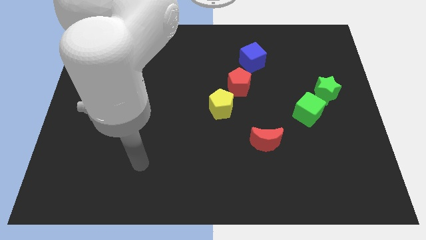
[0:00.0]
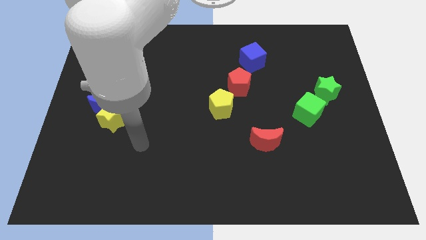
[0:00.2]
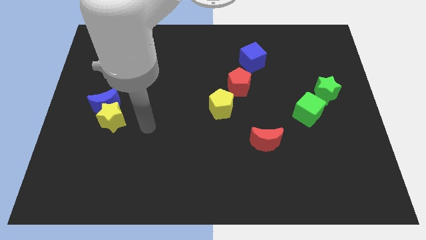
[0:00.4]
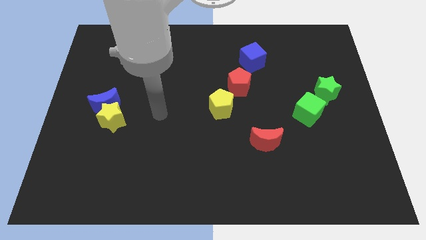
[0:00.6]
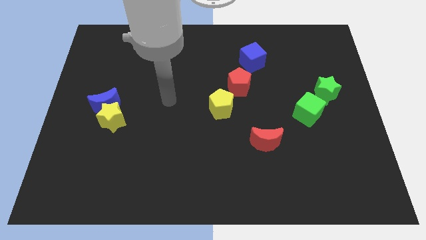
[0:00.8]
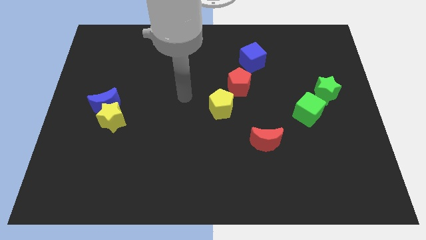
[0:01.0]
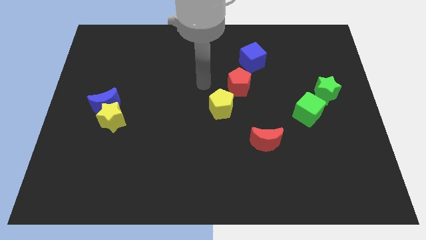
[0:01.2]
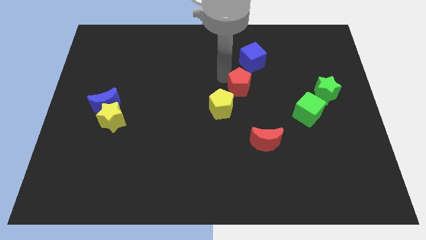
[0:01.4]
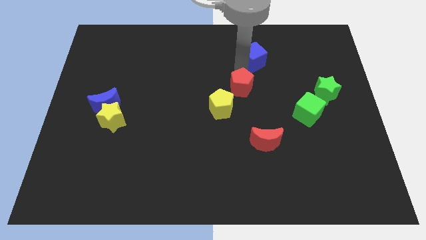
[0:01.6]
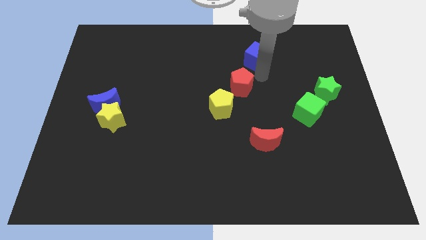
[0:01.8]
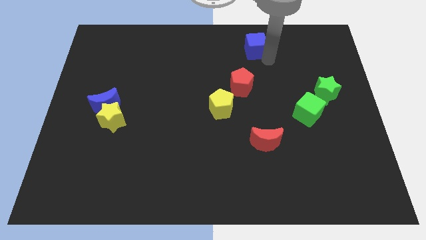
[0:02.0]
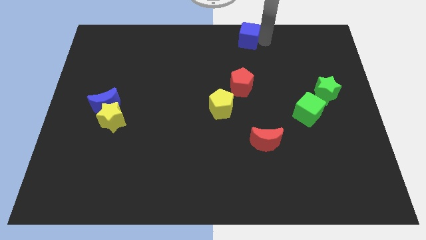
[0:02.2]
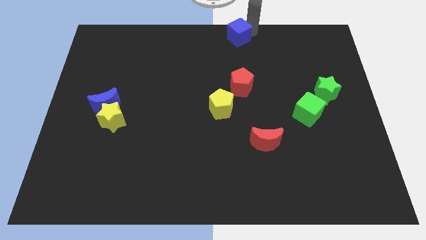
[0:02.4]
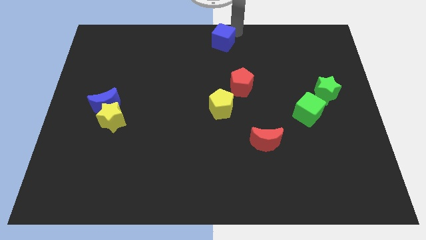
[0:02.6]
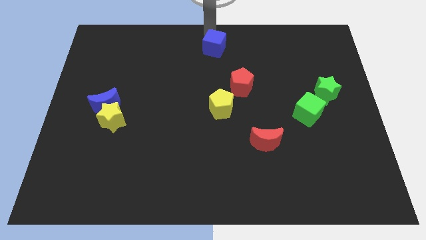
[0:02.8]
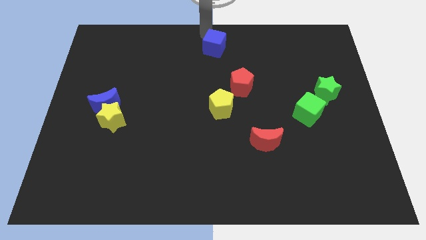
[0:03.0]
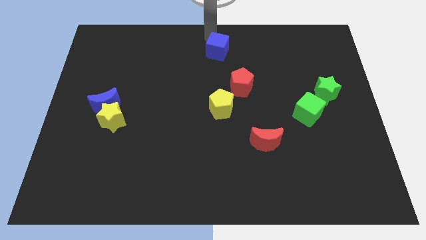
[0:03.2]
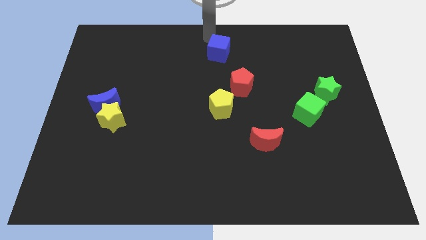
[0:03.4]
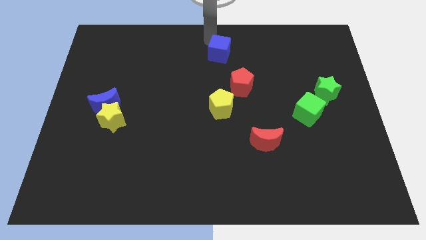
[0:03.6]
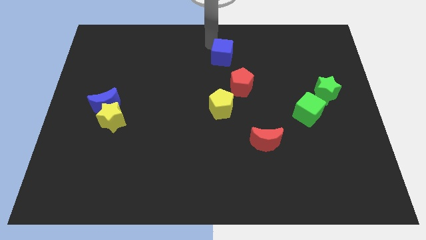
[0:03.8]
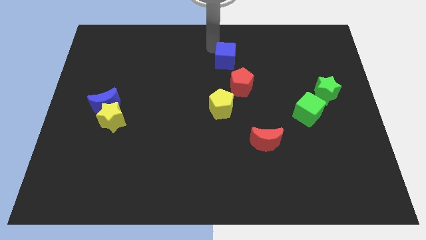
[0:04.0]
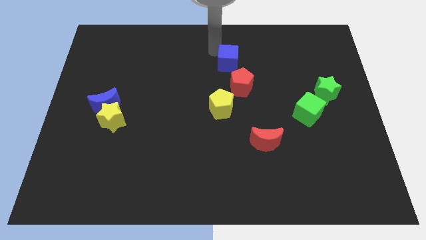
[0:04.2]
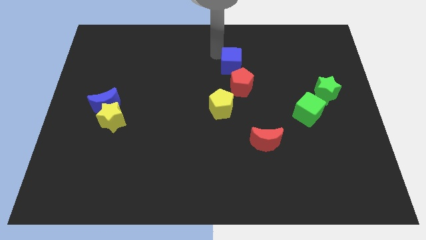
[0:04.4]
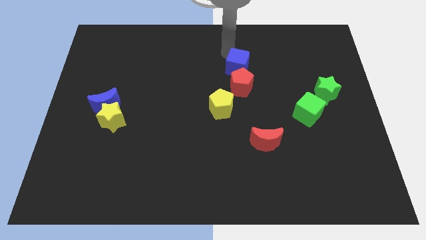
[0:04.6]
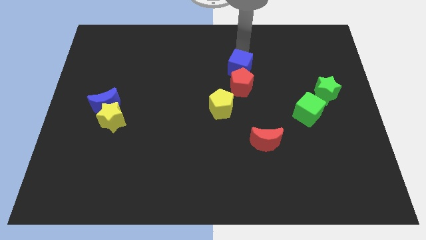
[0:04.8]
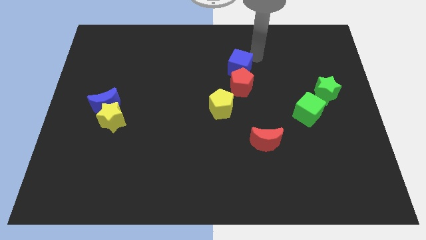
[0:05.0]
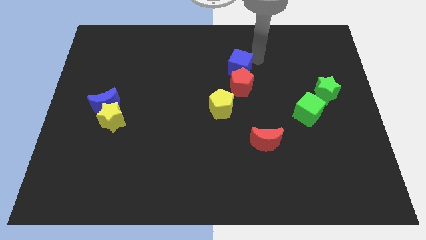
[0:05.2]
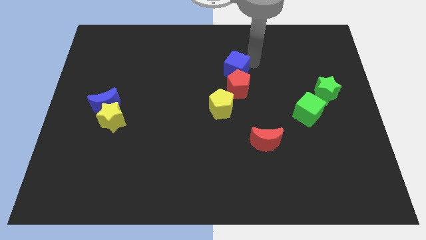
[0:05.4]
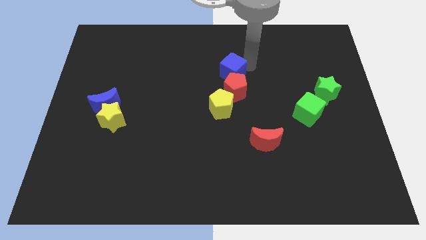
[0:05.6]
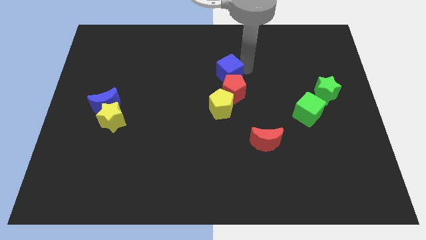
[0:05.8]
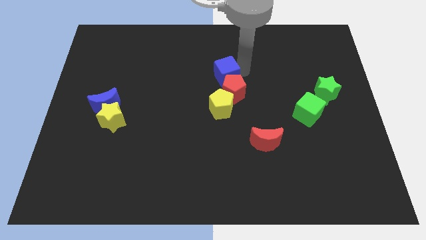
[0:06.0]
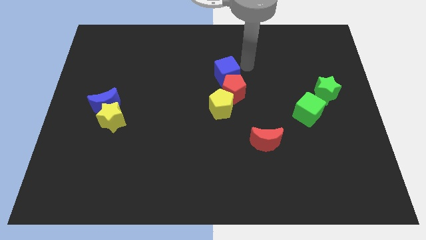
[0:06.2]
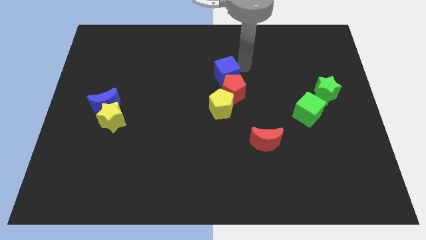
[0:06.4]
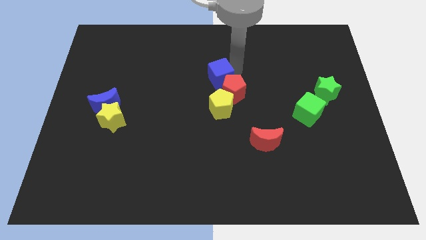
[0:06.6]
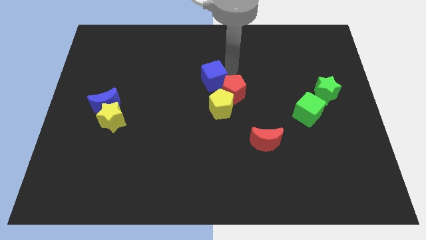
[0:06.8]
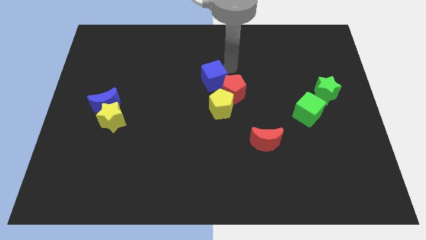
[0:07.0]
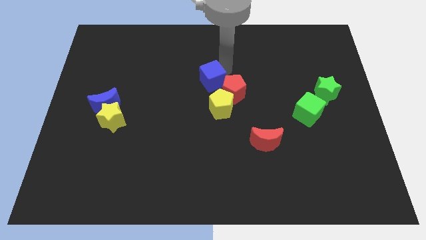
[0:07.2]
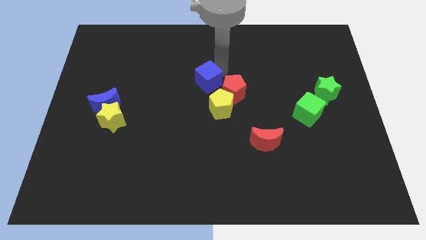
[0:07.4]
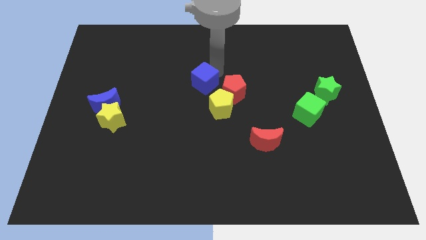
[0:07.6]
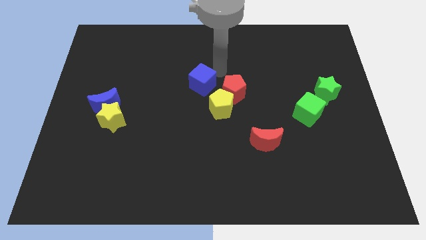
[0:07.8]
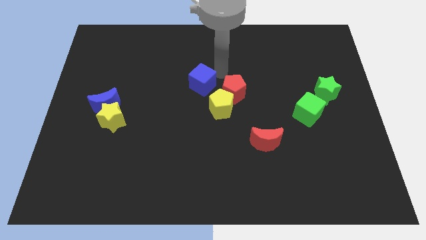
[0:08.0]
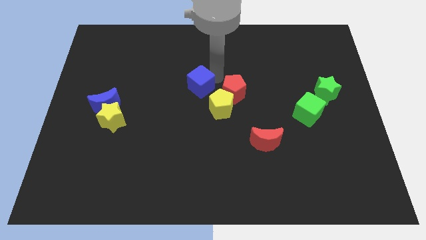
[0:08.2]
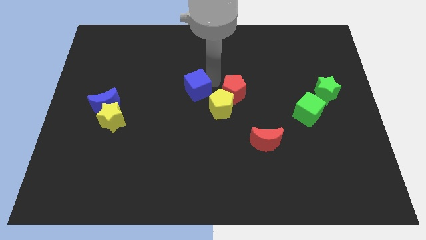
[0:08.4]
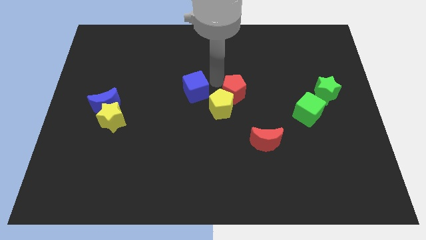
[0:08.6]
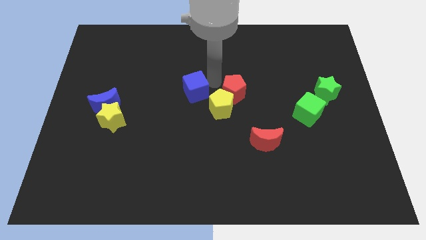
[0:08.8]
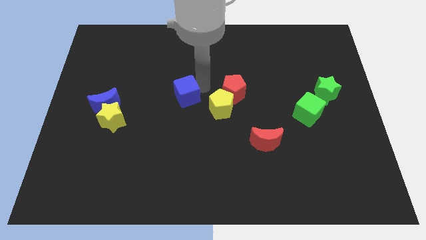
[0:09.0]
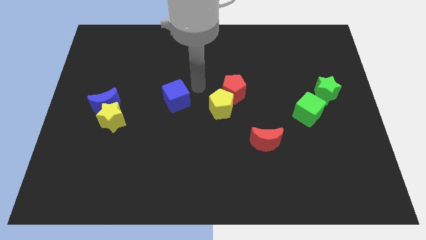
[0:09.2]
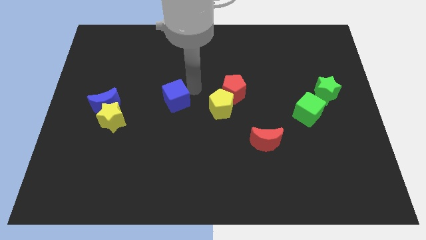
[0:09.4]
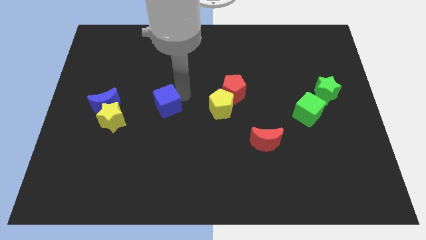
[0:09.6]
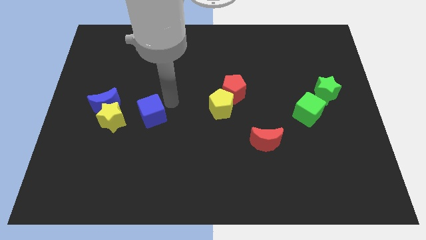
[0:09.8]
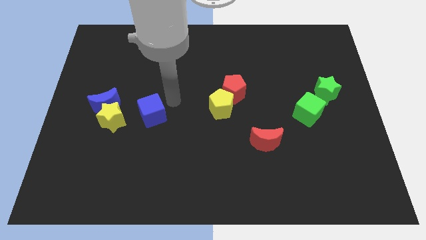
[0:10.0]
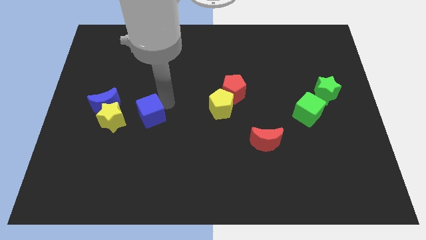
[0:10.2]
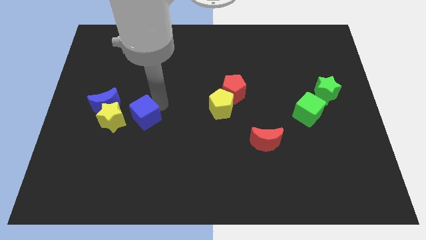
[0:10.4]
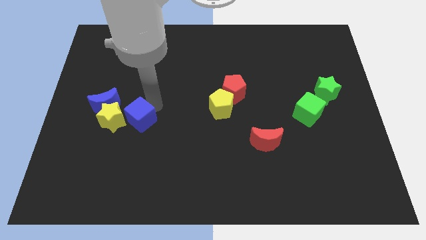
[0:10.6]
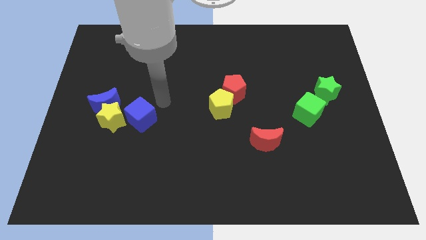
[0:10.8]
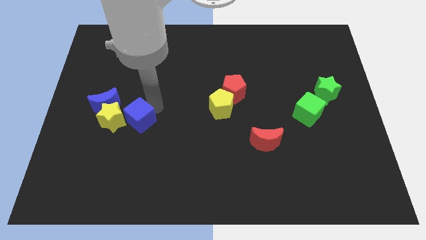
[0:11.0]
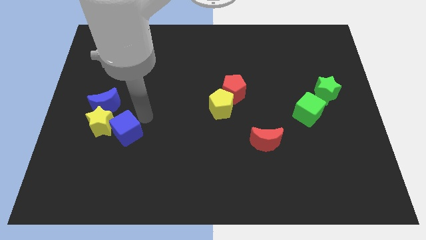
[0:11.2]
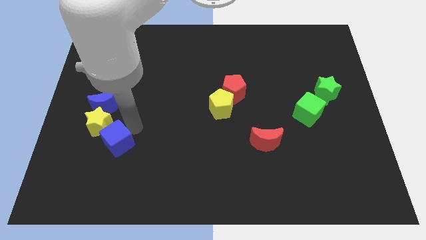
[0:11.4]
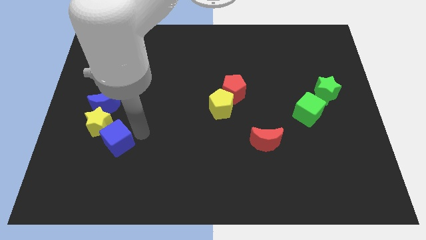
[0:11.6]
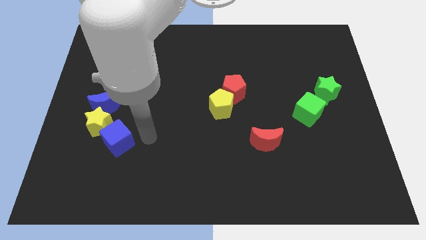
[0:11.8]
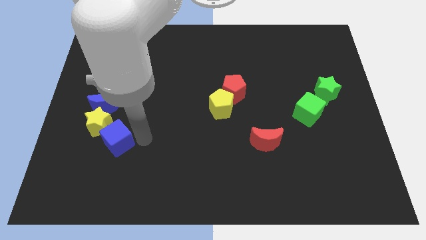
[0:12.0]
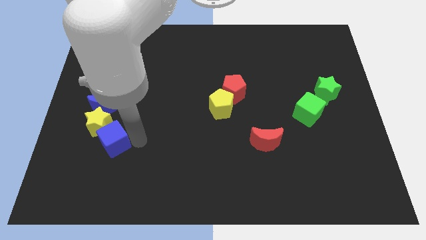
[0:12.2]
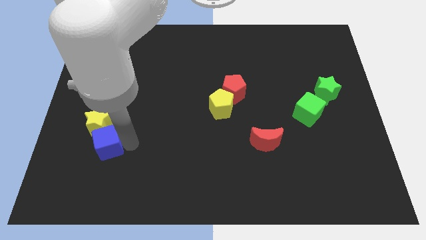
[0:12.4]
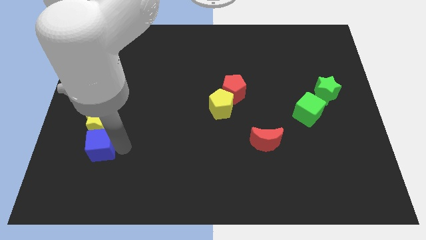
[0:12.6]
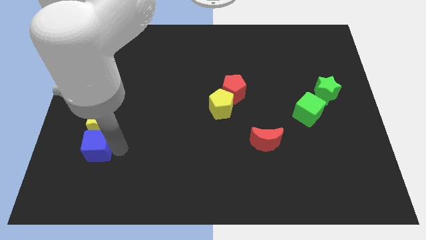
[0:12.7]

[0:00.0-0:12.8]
slide the blue cube to the bottom left of the yellow star

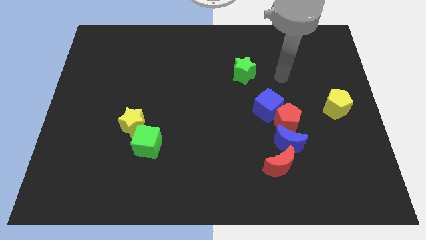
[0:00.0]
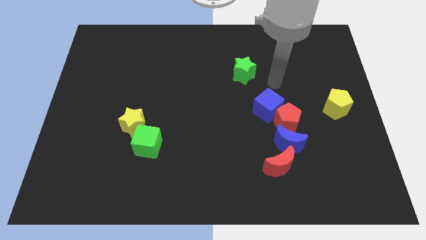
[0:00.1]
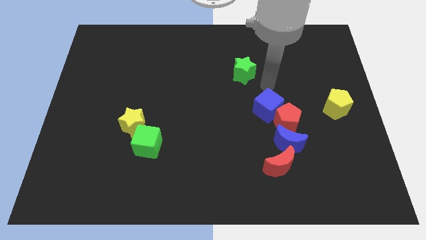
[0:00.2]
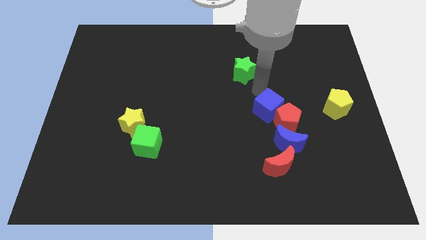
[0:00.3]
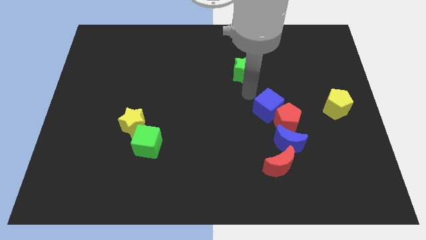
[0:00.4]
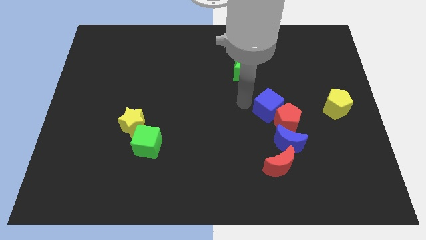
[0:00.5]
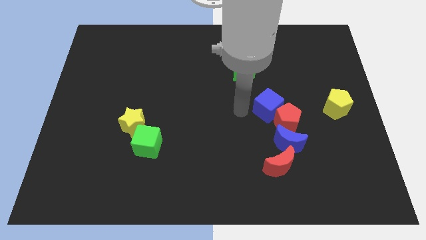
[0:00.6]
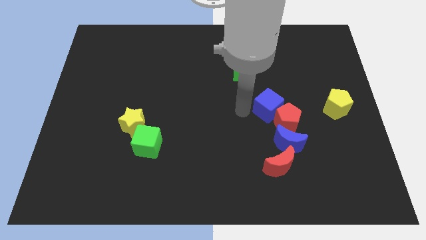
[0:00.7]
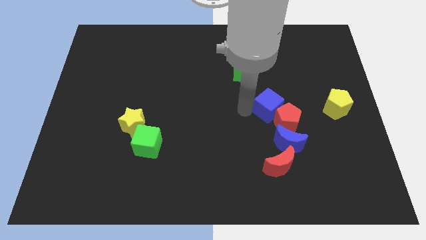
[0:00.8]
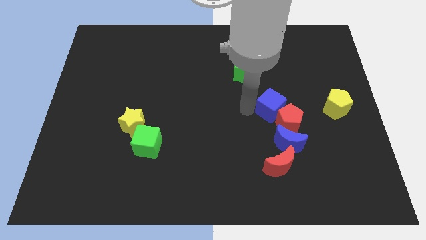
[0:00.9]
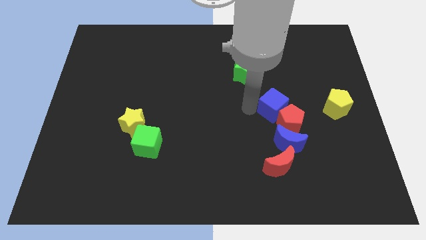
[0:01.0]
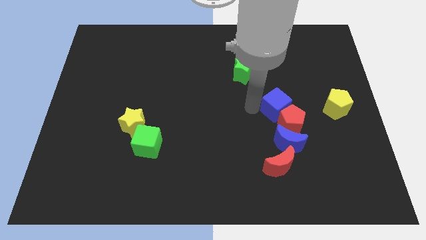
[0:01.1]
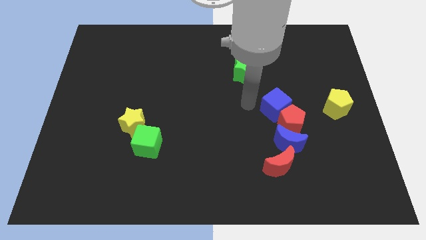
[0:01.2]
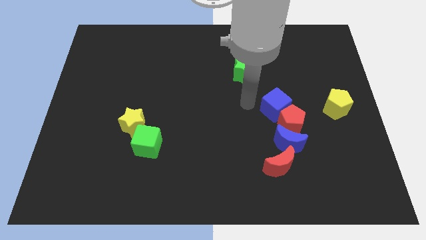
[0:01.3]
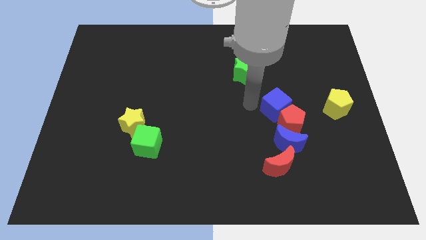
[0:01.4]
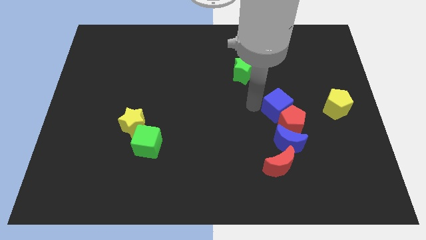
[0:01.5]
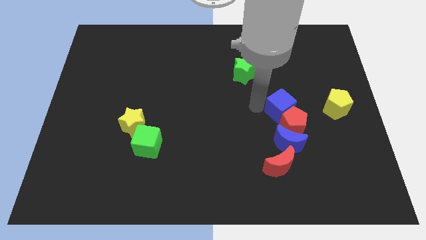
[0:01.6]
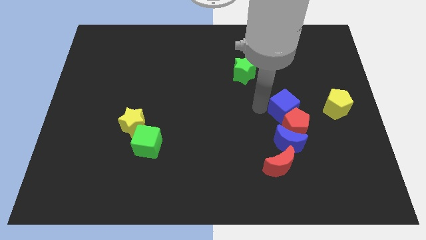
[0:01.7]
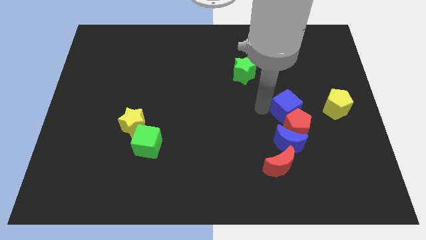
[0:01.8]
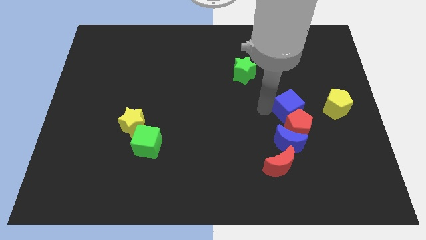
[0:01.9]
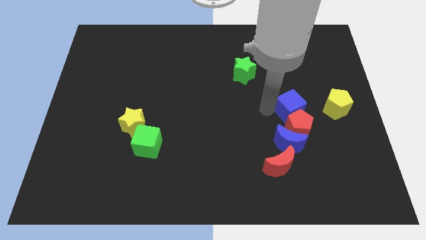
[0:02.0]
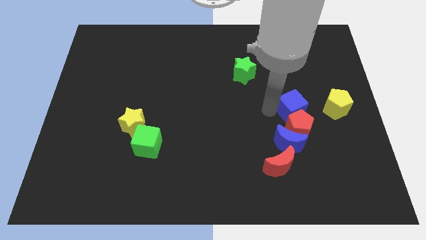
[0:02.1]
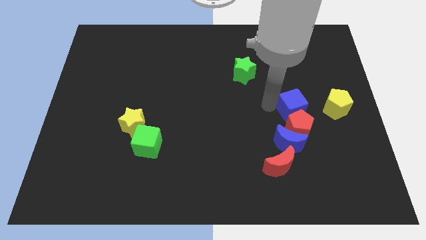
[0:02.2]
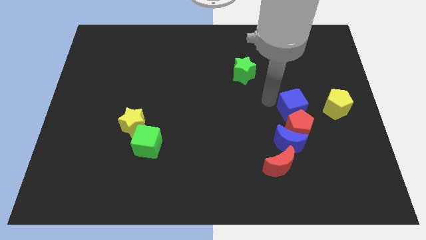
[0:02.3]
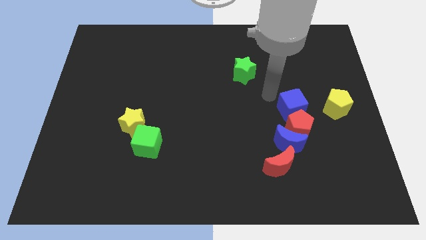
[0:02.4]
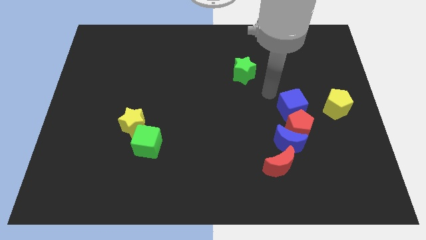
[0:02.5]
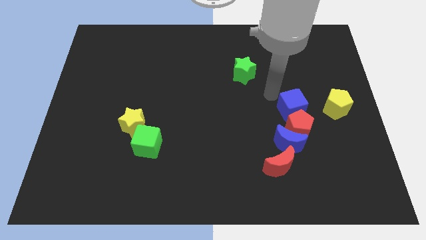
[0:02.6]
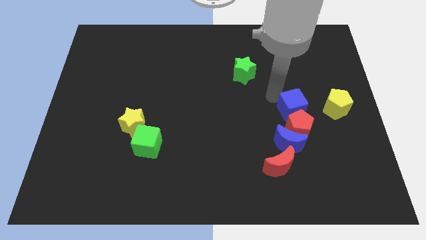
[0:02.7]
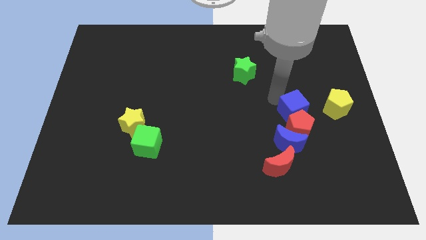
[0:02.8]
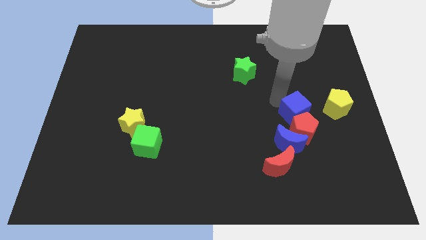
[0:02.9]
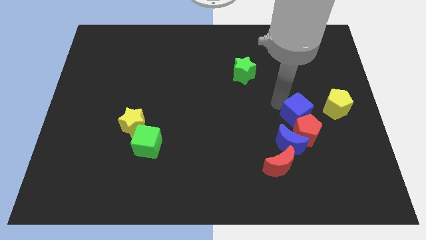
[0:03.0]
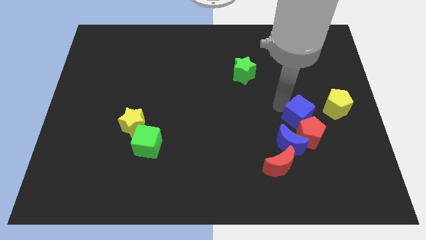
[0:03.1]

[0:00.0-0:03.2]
move the blue cube diagonally down and to the left of the yellow pentagon
